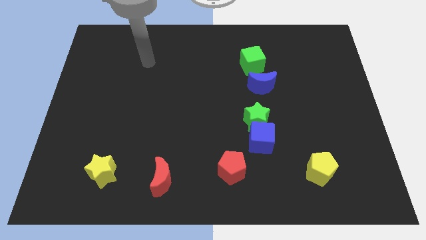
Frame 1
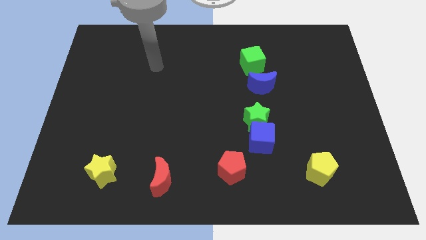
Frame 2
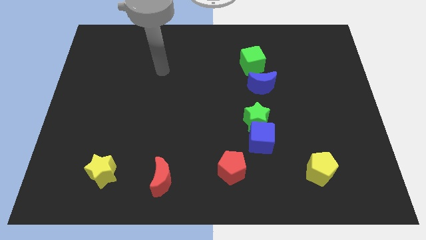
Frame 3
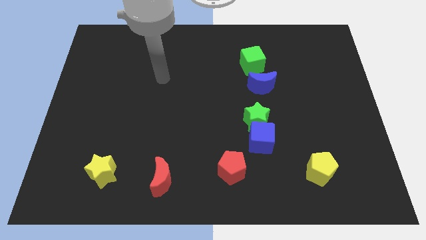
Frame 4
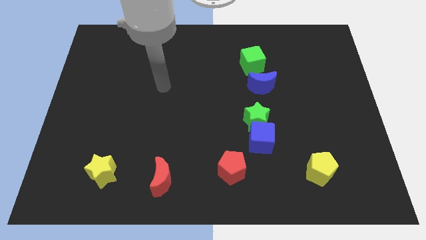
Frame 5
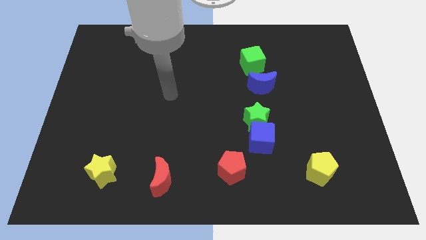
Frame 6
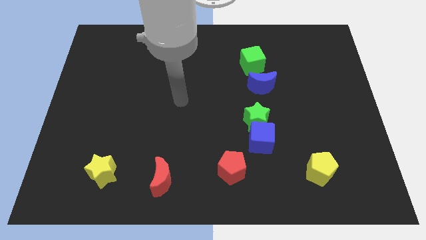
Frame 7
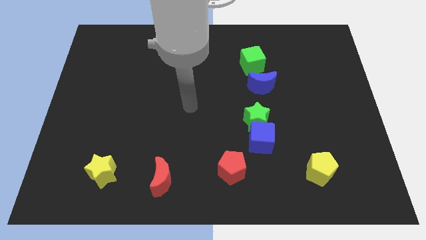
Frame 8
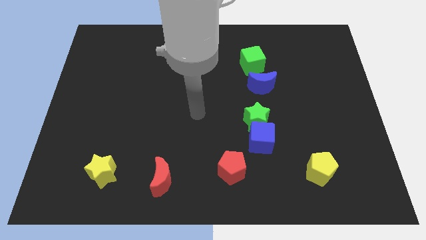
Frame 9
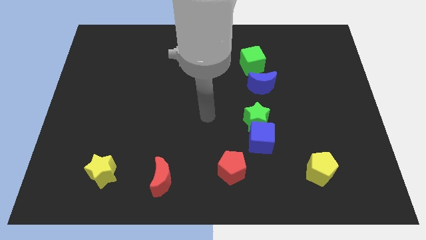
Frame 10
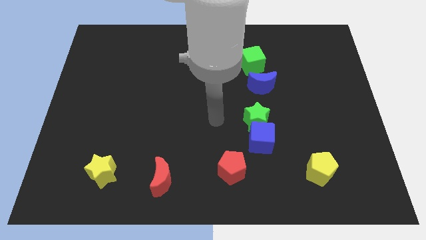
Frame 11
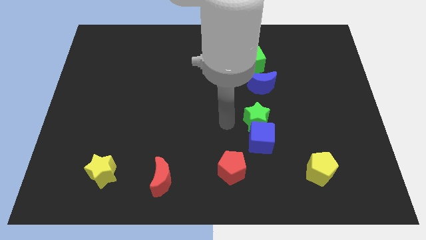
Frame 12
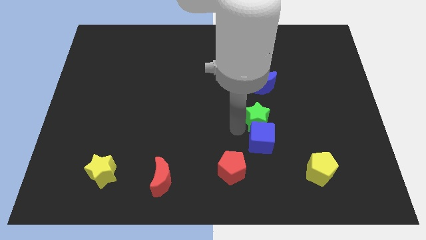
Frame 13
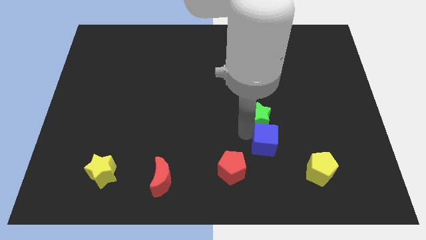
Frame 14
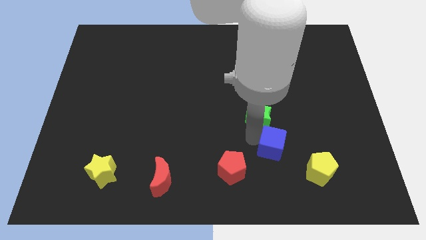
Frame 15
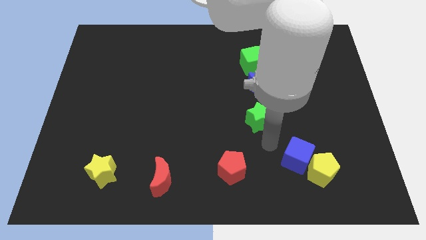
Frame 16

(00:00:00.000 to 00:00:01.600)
pull the green star apart from the blue cube

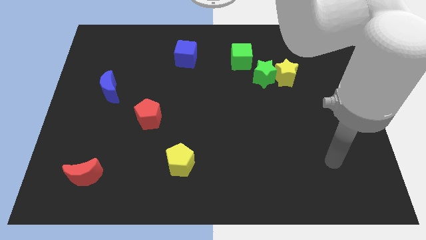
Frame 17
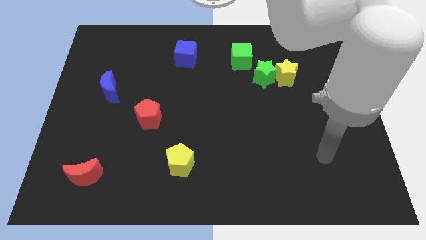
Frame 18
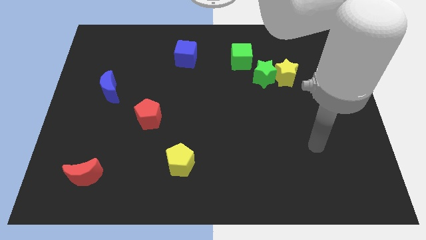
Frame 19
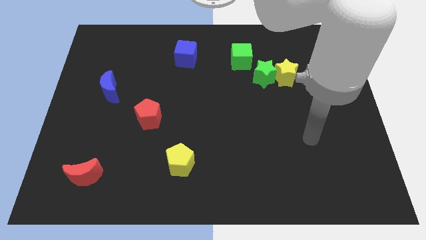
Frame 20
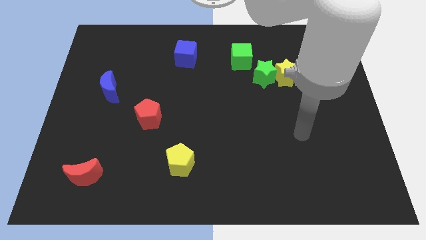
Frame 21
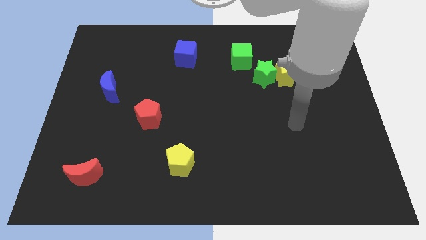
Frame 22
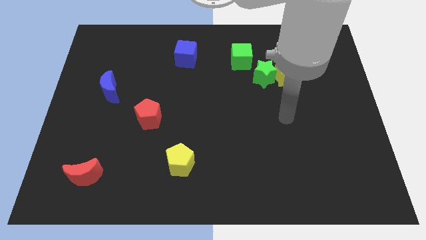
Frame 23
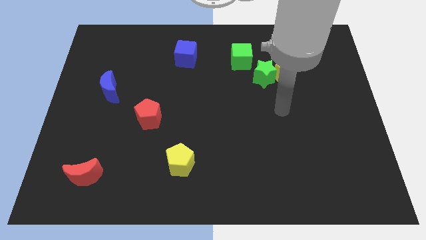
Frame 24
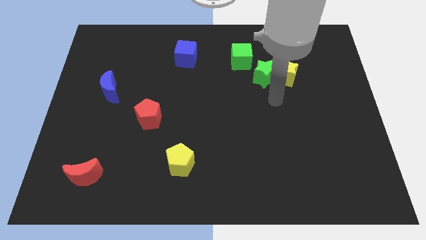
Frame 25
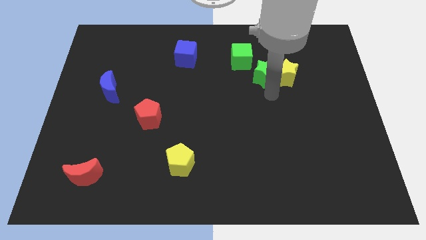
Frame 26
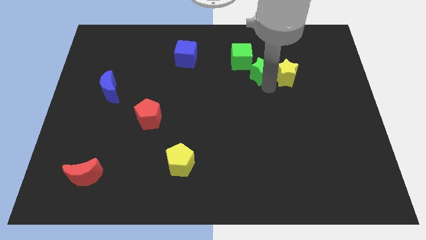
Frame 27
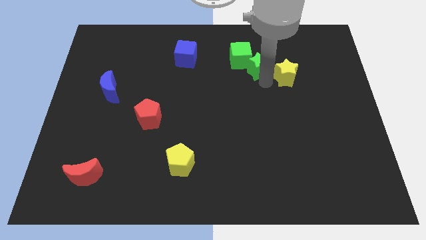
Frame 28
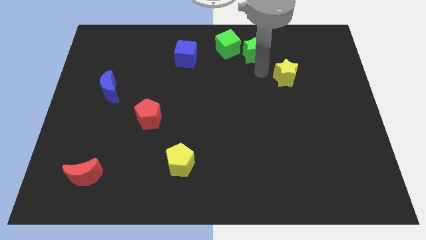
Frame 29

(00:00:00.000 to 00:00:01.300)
separate the yellow star from the green star

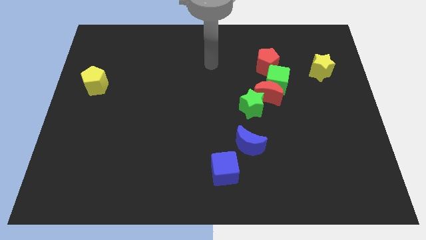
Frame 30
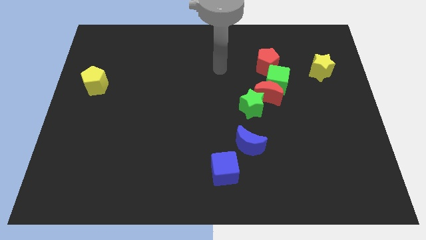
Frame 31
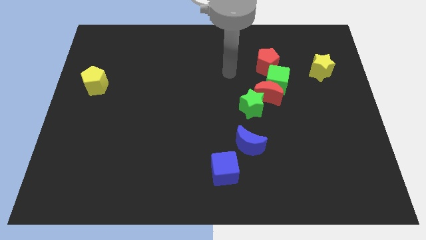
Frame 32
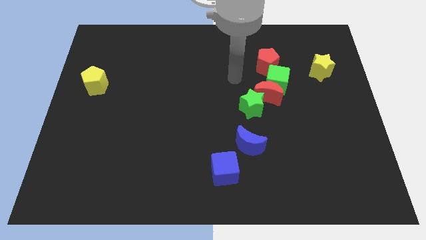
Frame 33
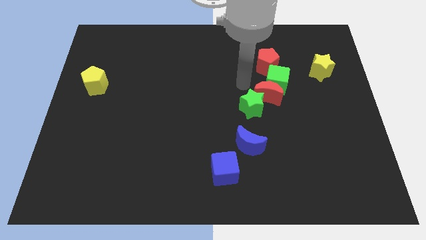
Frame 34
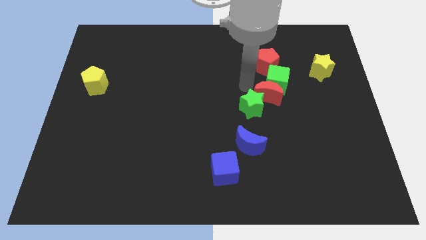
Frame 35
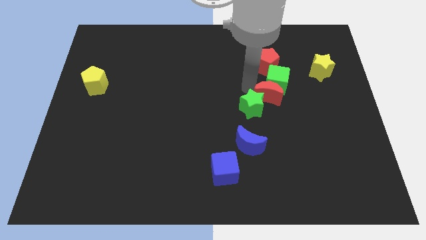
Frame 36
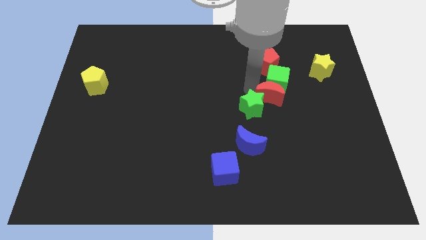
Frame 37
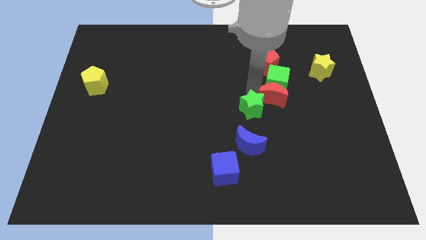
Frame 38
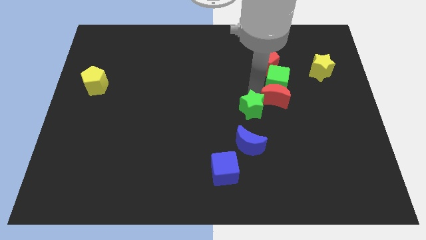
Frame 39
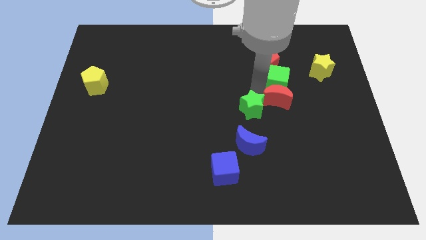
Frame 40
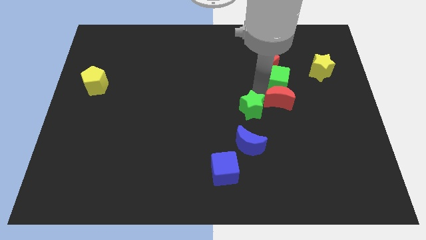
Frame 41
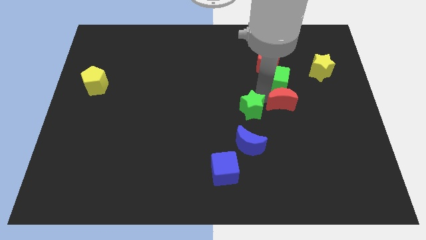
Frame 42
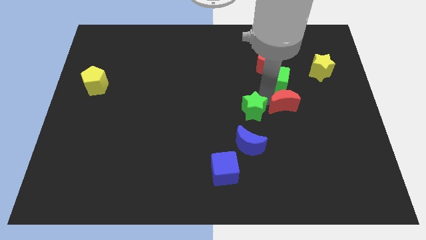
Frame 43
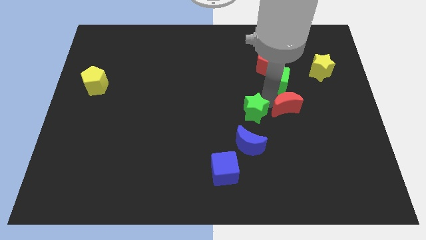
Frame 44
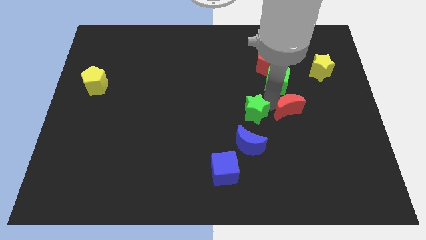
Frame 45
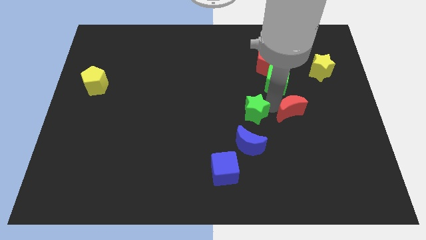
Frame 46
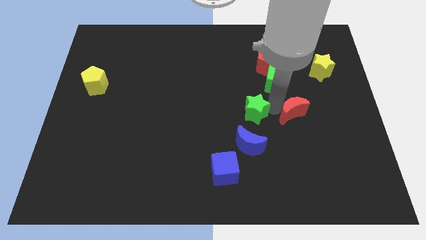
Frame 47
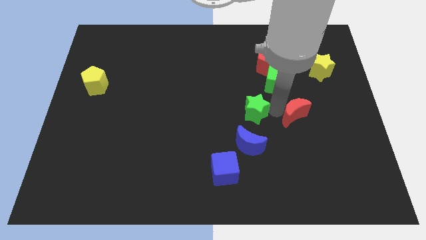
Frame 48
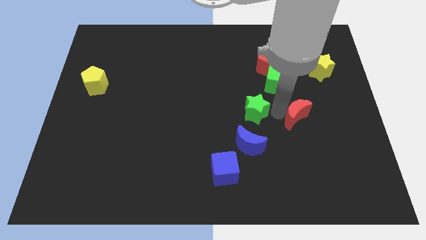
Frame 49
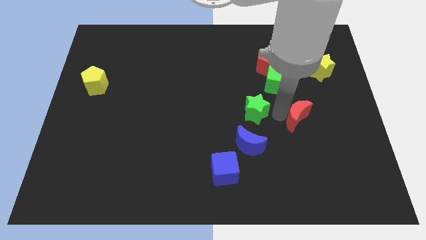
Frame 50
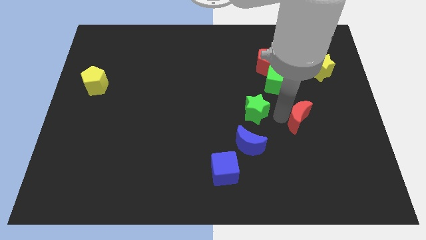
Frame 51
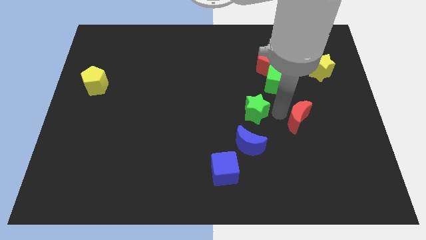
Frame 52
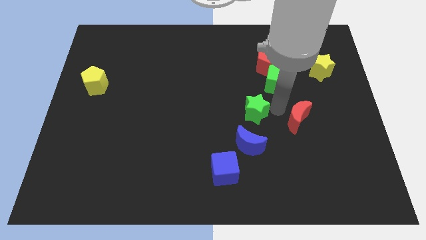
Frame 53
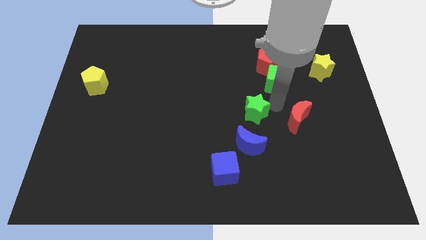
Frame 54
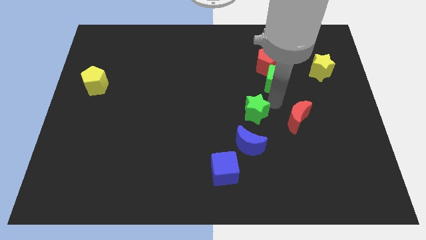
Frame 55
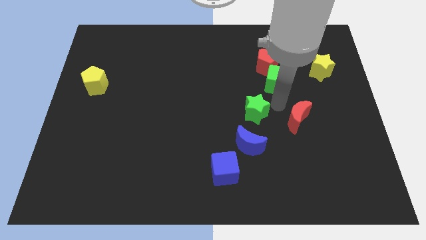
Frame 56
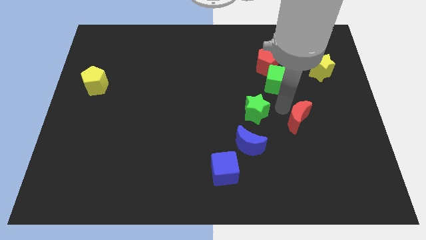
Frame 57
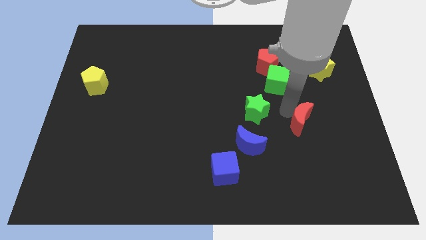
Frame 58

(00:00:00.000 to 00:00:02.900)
pull the red moon apart from the green cube and green star

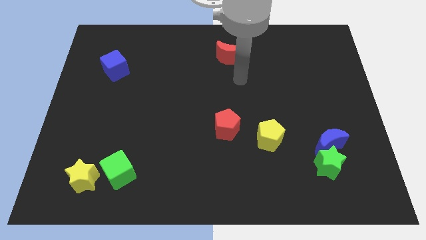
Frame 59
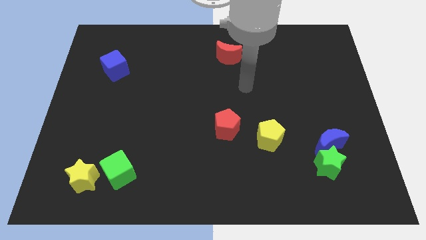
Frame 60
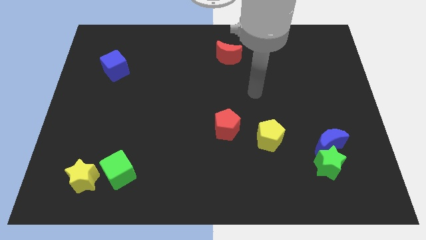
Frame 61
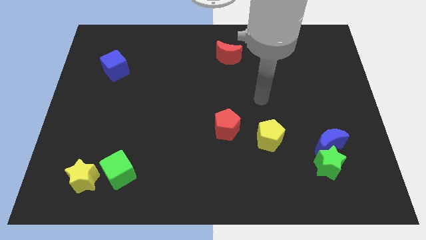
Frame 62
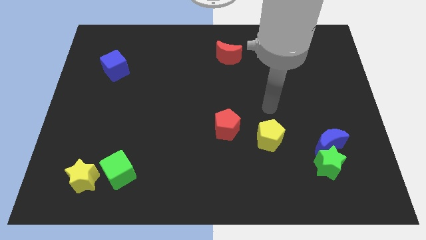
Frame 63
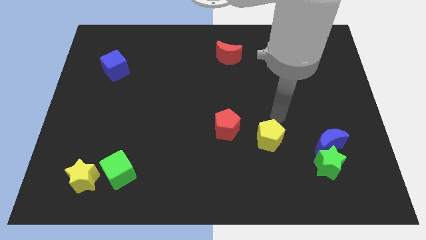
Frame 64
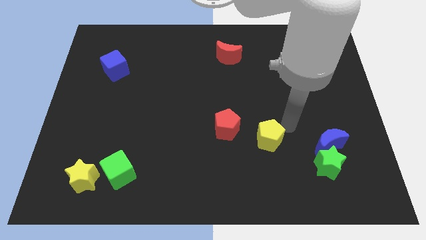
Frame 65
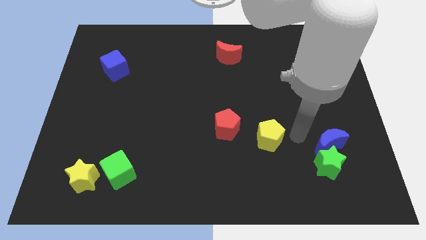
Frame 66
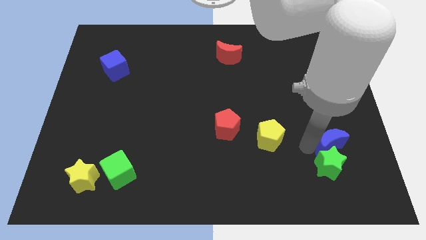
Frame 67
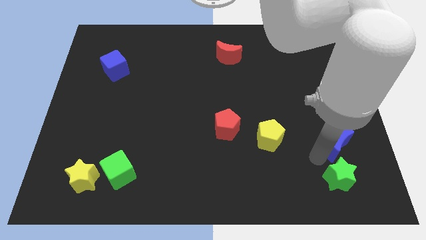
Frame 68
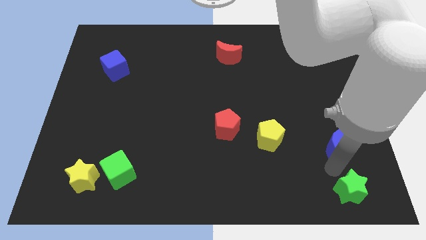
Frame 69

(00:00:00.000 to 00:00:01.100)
move the blue moon away from the green star

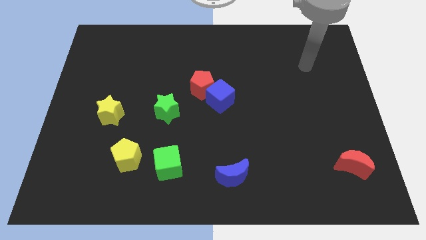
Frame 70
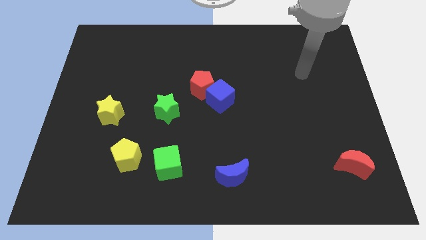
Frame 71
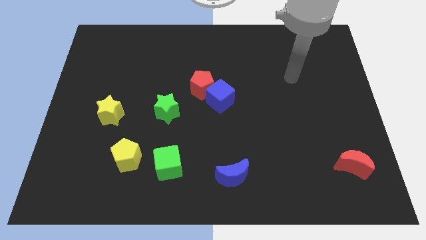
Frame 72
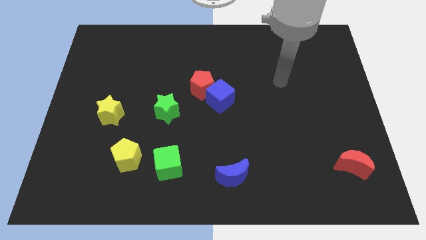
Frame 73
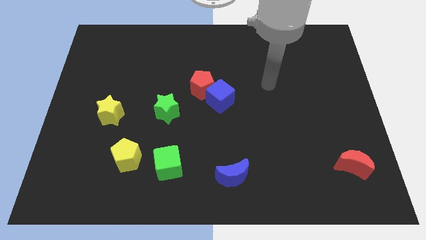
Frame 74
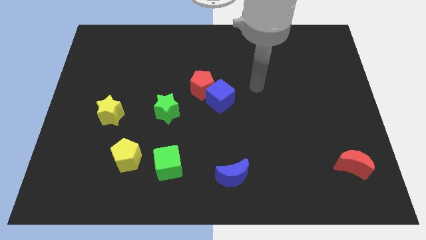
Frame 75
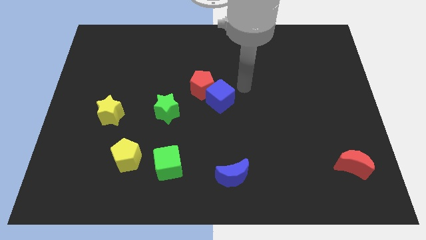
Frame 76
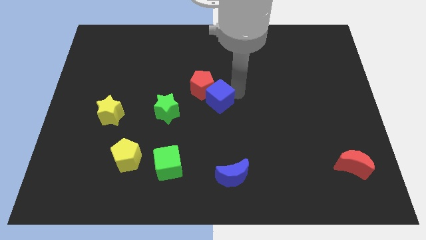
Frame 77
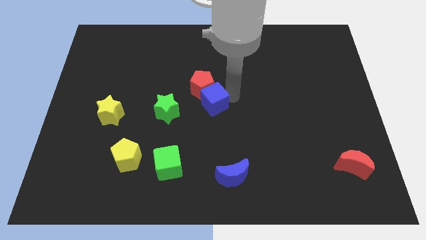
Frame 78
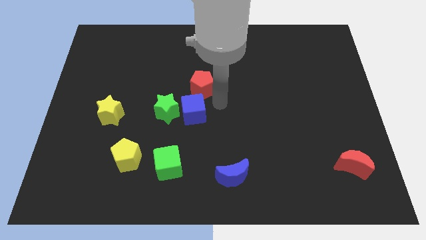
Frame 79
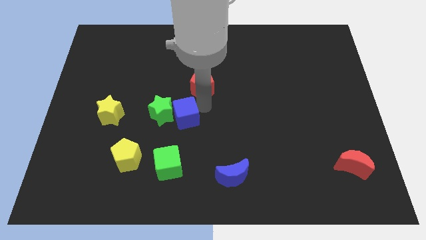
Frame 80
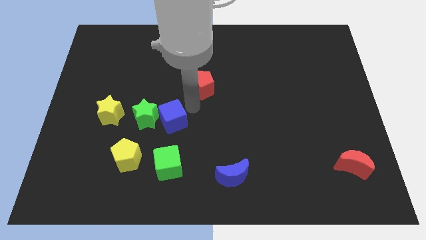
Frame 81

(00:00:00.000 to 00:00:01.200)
separate the red pentagon from the blue cube

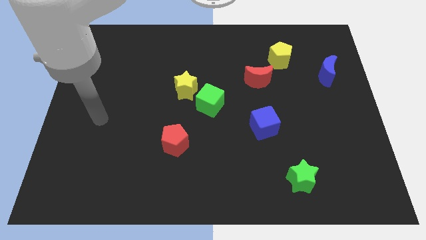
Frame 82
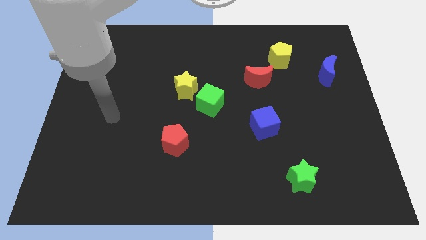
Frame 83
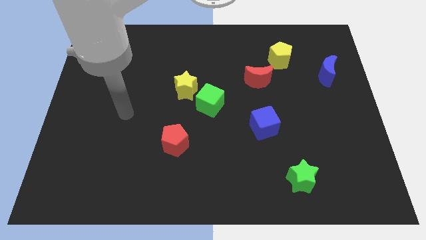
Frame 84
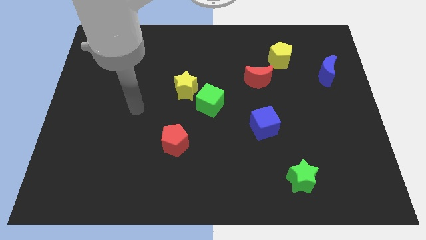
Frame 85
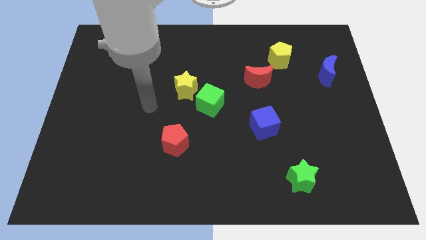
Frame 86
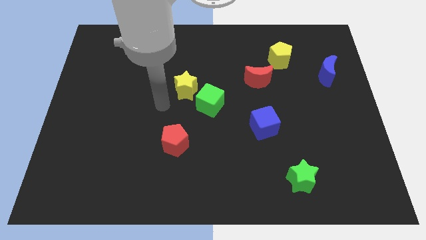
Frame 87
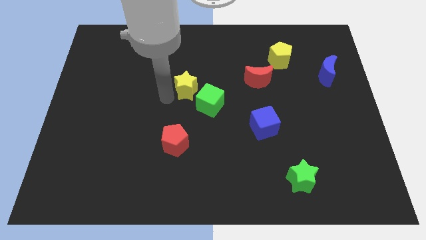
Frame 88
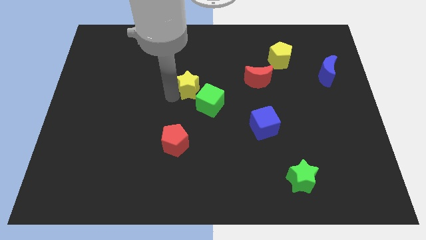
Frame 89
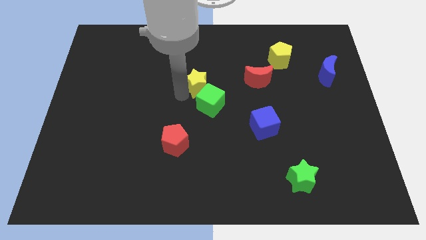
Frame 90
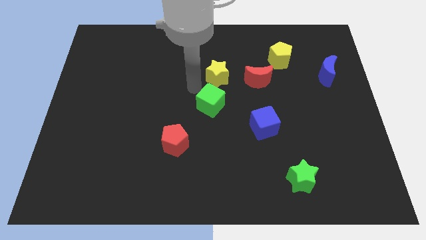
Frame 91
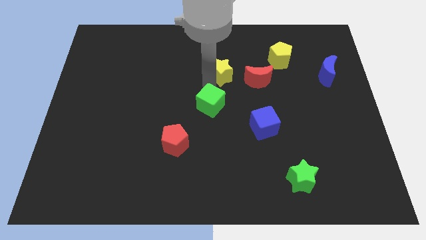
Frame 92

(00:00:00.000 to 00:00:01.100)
move the green cube away from the yellow star
